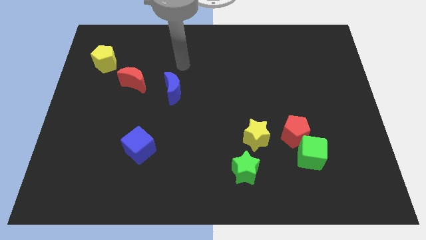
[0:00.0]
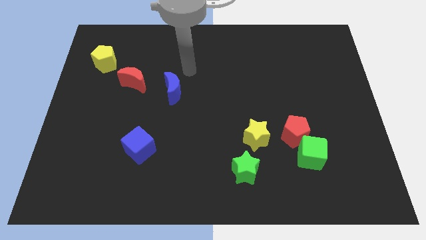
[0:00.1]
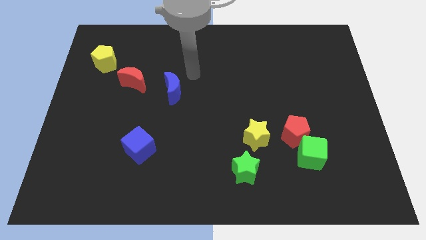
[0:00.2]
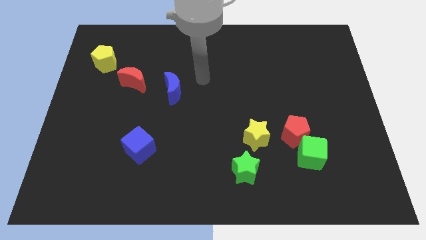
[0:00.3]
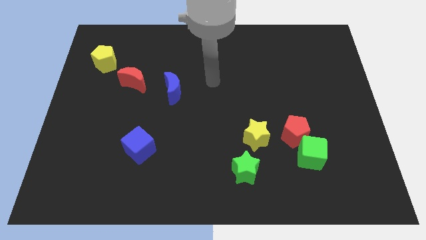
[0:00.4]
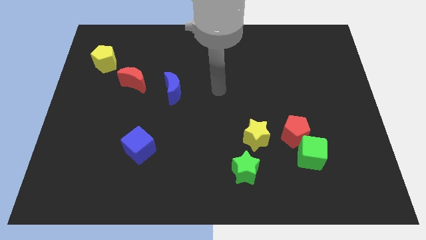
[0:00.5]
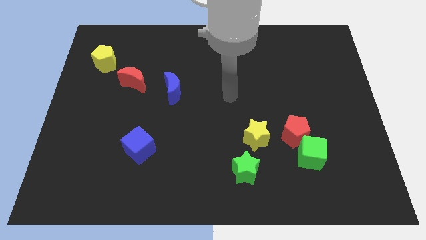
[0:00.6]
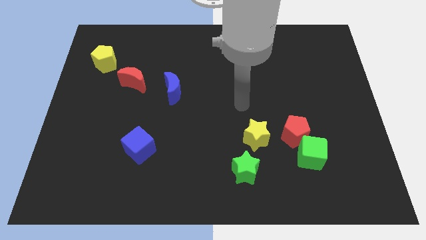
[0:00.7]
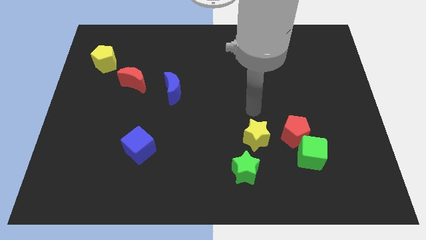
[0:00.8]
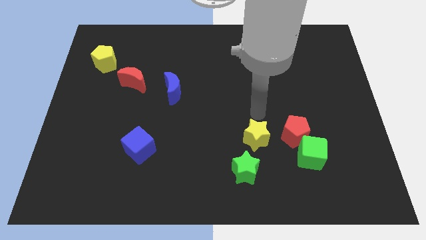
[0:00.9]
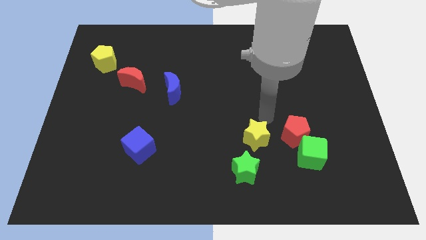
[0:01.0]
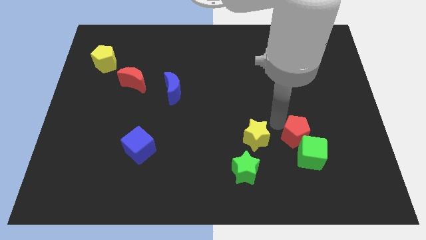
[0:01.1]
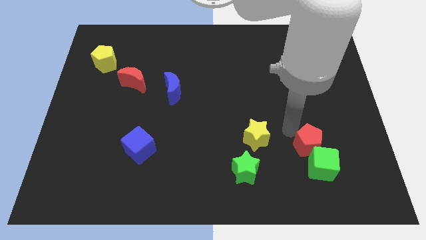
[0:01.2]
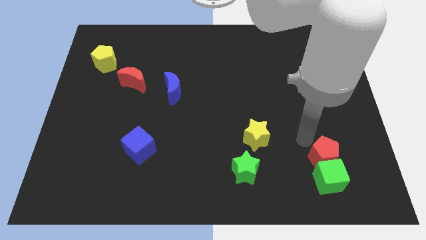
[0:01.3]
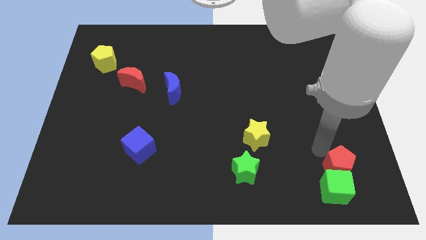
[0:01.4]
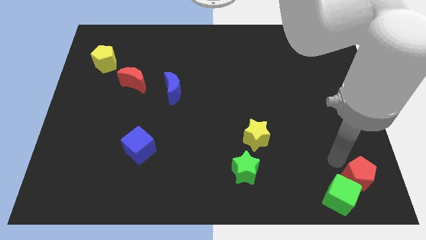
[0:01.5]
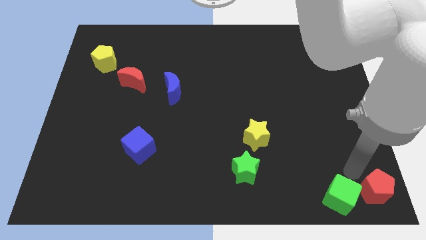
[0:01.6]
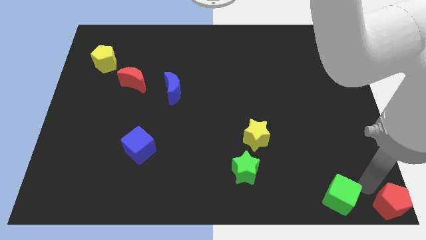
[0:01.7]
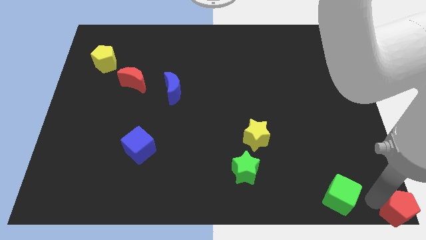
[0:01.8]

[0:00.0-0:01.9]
move the green cube away from the red pentagon

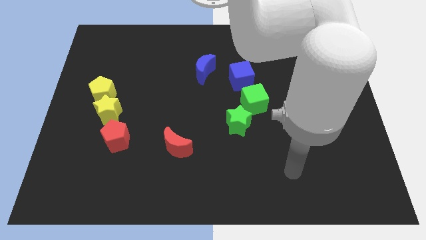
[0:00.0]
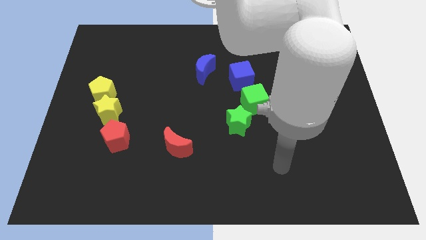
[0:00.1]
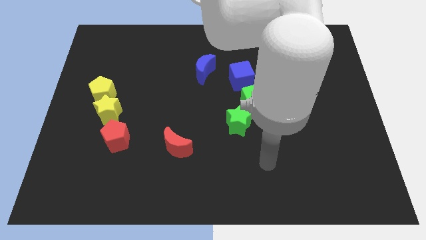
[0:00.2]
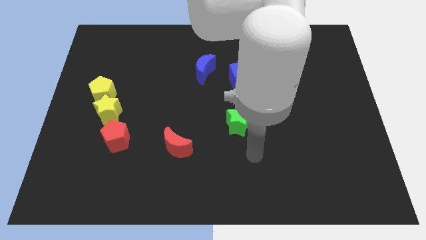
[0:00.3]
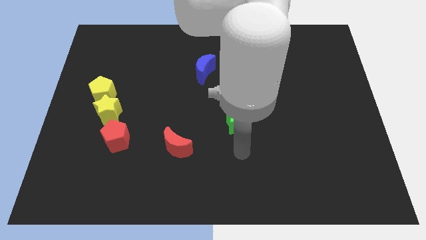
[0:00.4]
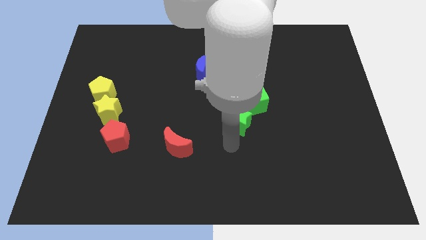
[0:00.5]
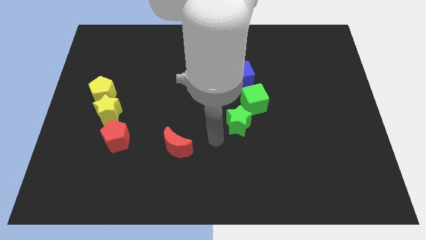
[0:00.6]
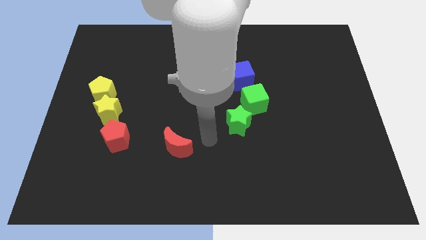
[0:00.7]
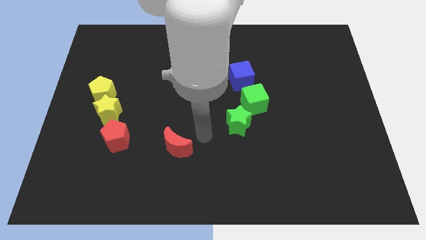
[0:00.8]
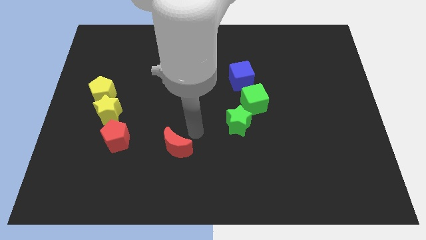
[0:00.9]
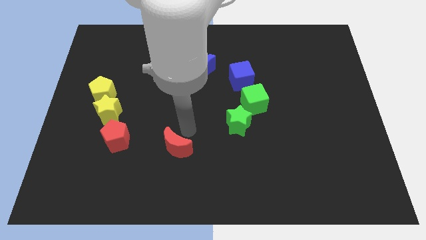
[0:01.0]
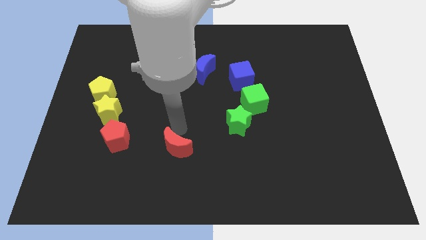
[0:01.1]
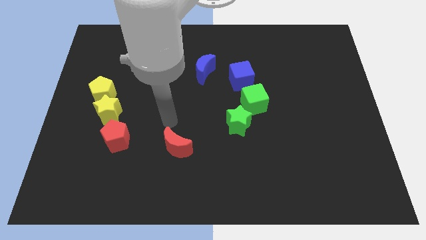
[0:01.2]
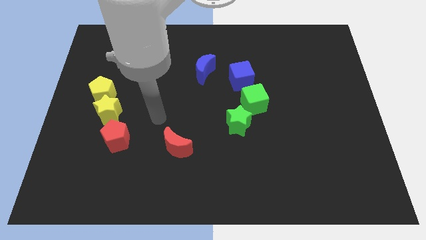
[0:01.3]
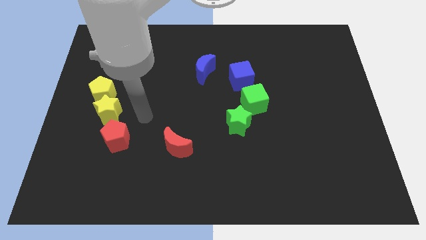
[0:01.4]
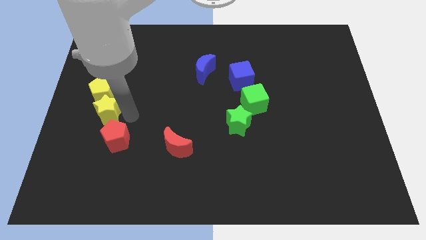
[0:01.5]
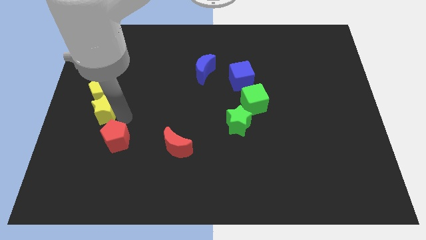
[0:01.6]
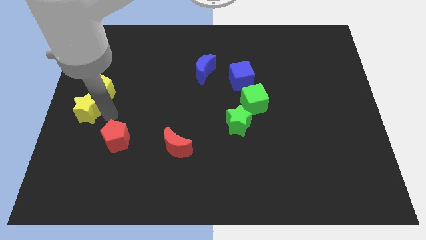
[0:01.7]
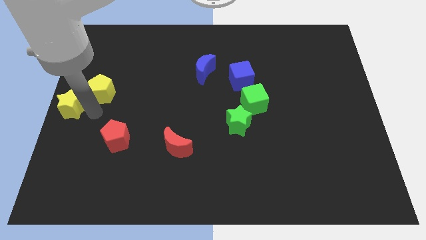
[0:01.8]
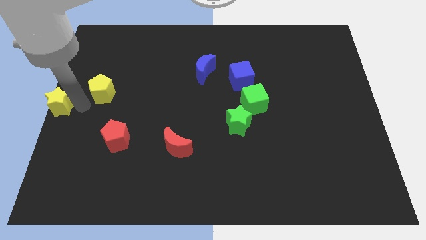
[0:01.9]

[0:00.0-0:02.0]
separate the yellow pentagon from the yellow star

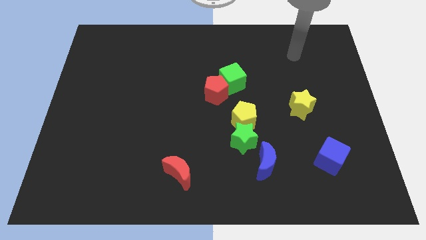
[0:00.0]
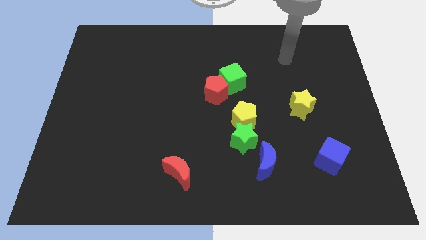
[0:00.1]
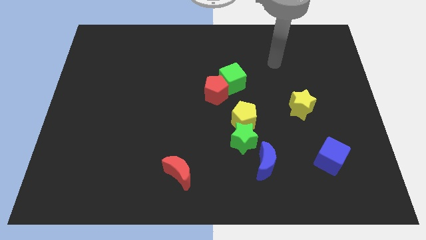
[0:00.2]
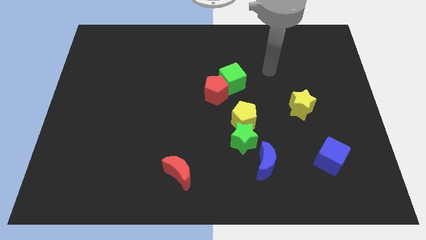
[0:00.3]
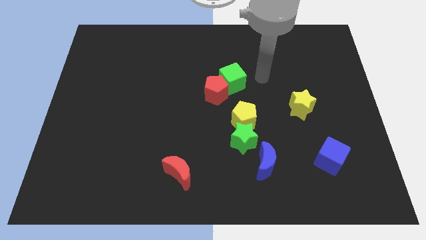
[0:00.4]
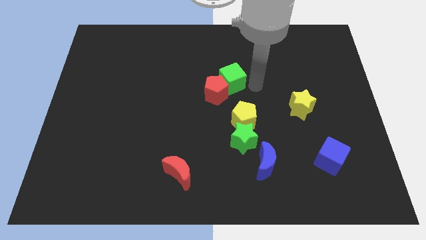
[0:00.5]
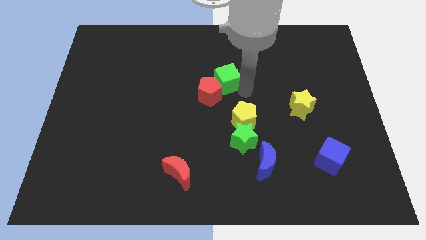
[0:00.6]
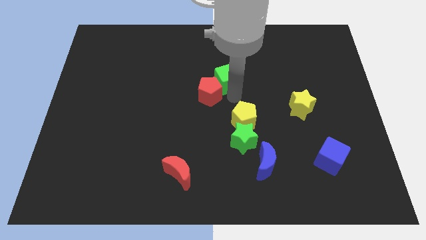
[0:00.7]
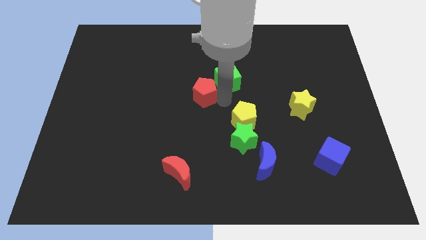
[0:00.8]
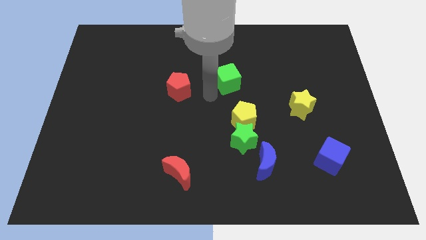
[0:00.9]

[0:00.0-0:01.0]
separate the green cube from the red pentagon

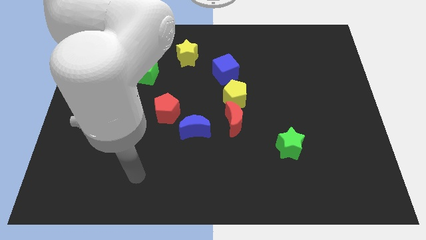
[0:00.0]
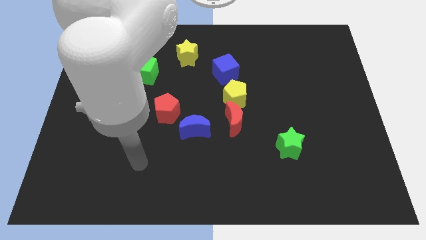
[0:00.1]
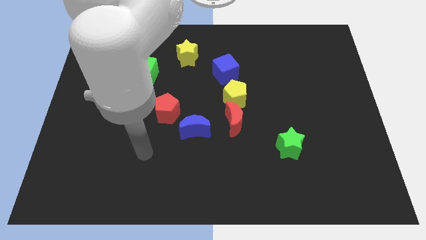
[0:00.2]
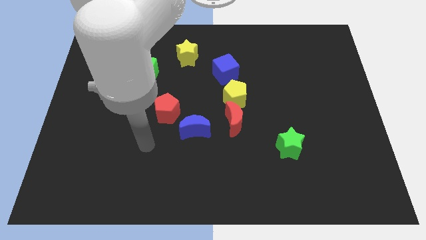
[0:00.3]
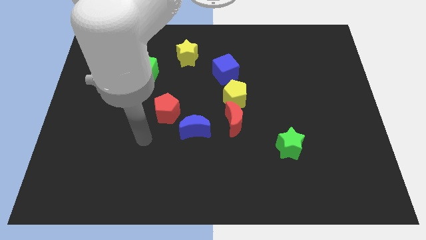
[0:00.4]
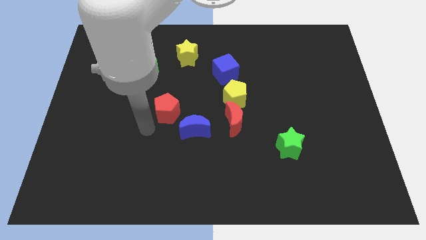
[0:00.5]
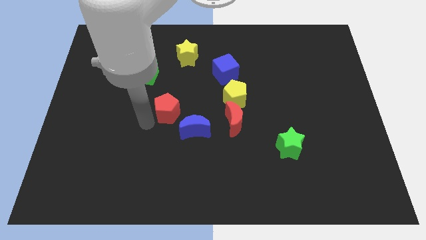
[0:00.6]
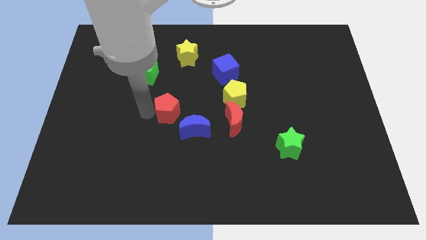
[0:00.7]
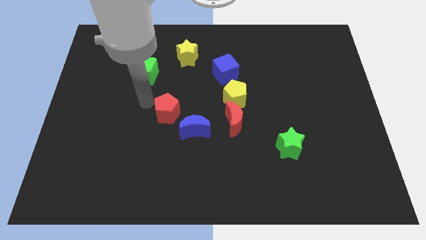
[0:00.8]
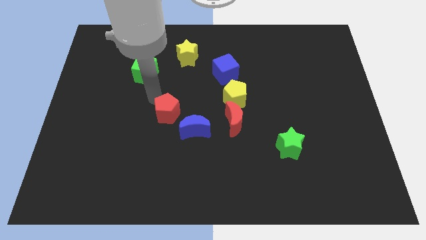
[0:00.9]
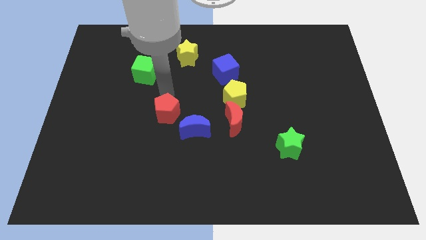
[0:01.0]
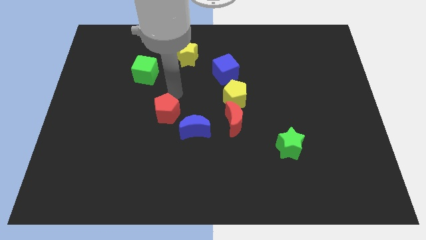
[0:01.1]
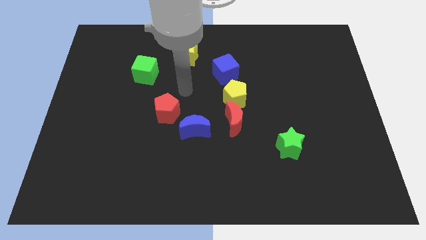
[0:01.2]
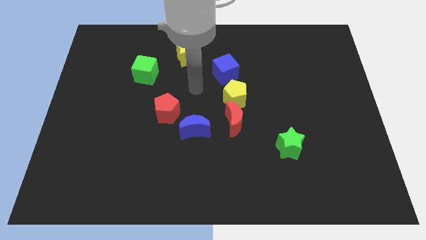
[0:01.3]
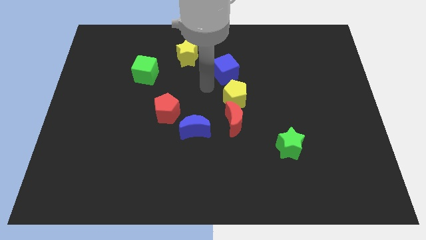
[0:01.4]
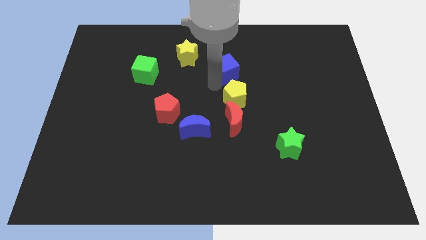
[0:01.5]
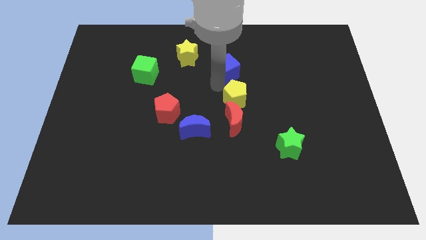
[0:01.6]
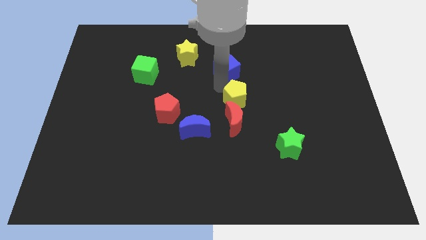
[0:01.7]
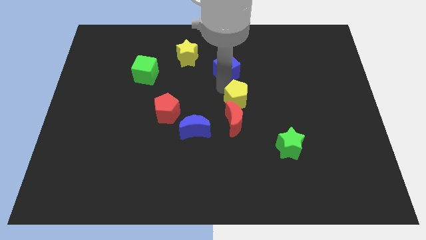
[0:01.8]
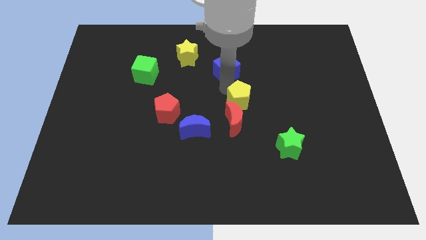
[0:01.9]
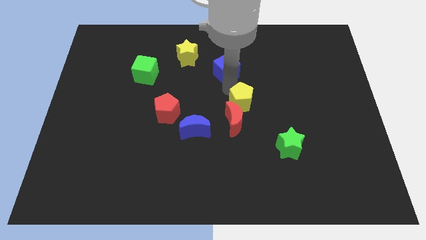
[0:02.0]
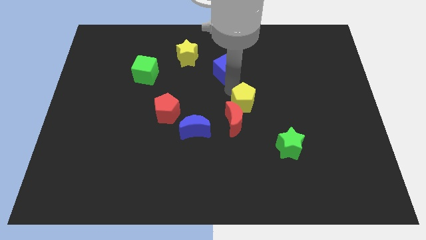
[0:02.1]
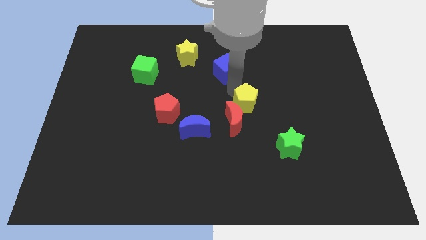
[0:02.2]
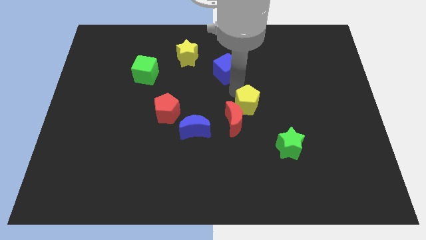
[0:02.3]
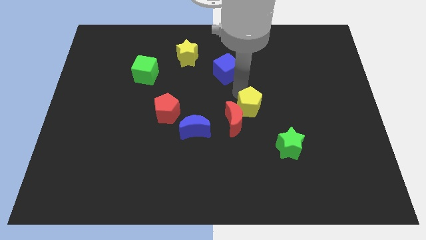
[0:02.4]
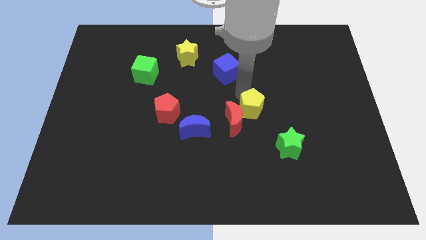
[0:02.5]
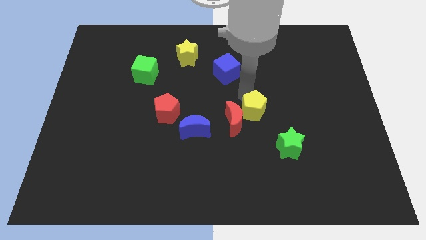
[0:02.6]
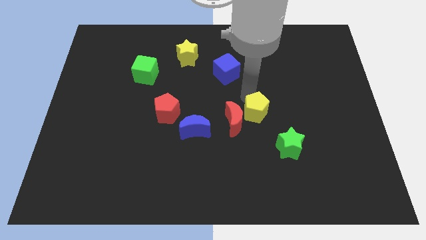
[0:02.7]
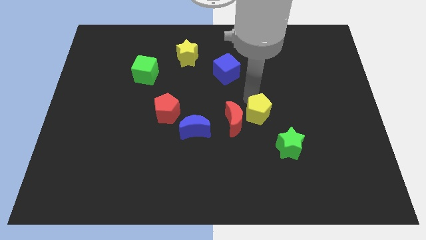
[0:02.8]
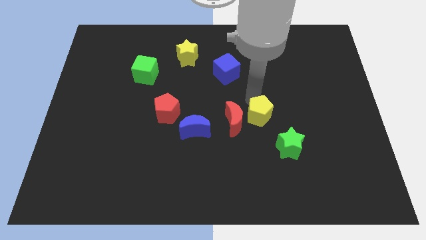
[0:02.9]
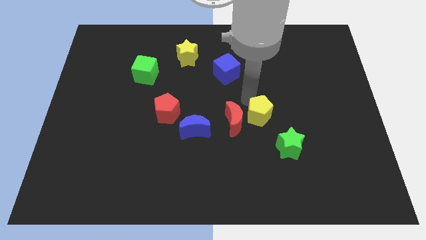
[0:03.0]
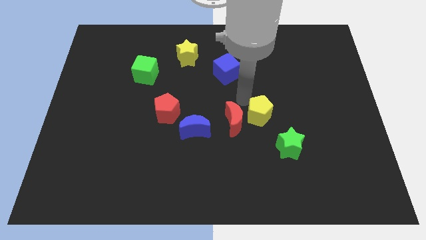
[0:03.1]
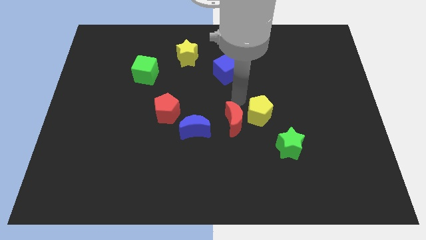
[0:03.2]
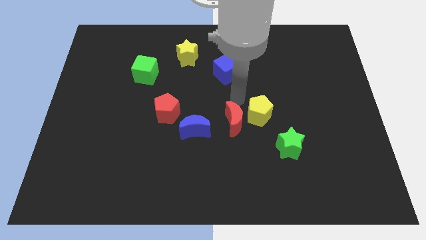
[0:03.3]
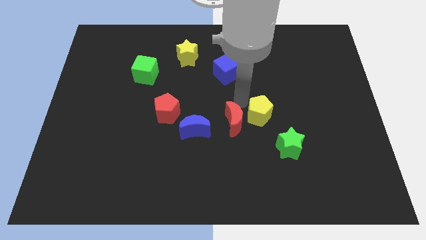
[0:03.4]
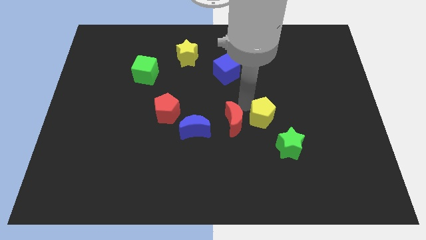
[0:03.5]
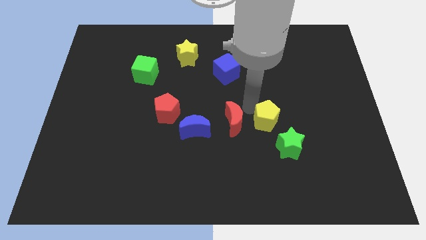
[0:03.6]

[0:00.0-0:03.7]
move the yellow pentagon away from the red moon and blue cube

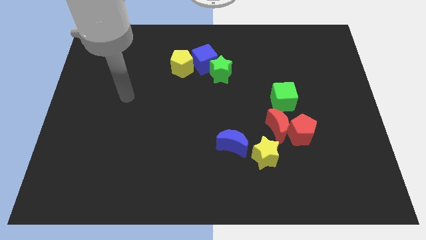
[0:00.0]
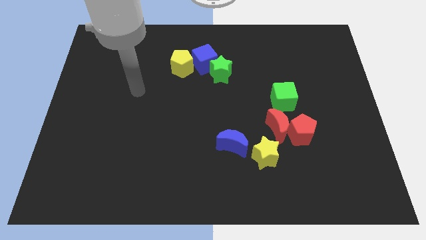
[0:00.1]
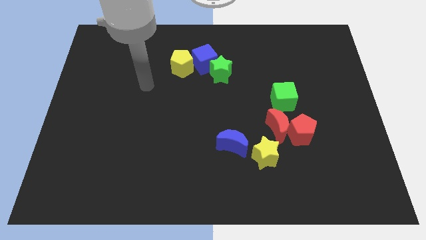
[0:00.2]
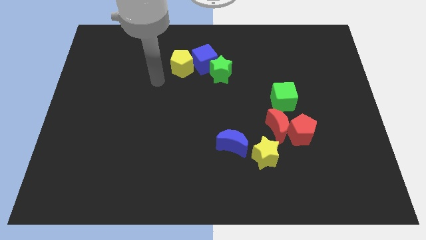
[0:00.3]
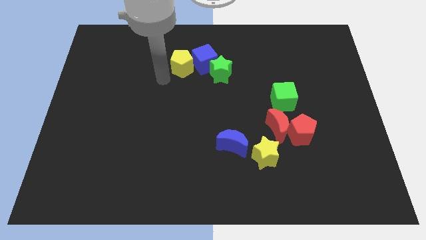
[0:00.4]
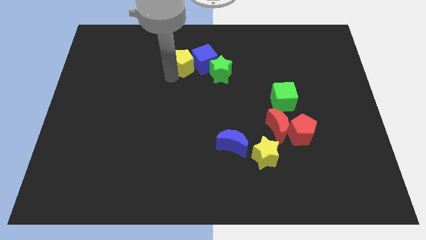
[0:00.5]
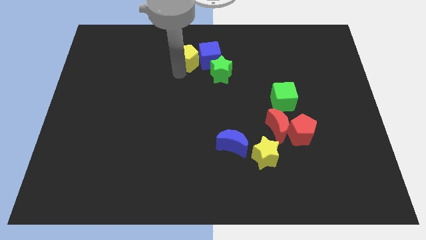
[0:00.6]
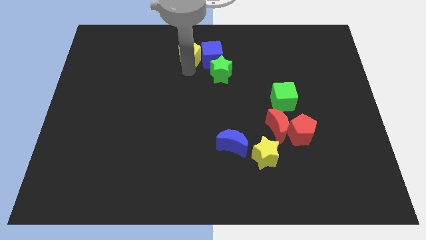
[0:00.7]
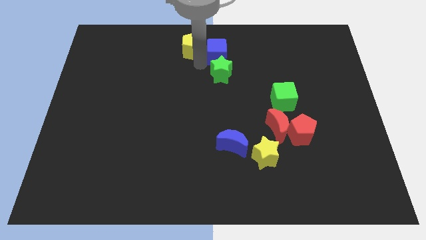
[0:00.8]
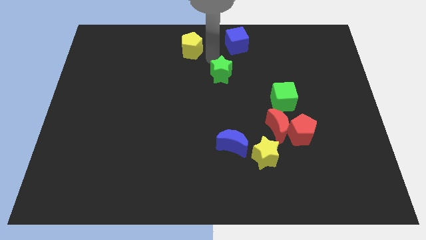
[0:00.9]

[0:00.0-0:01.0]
pull the green star apart from the blue cube
